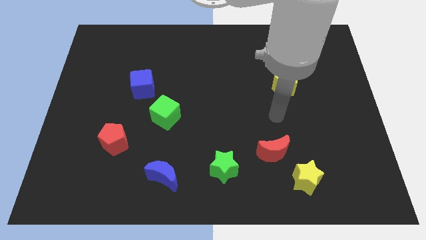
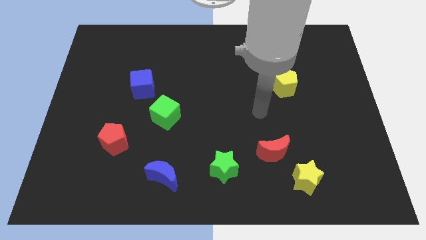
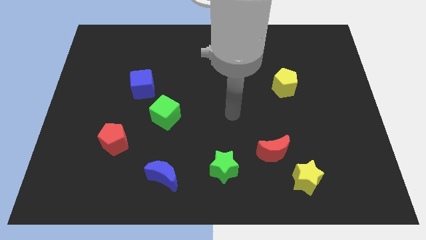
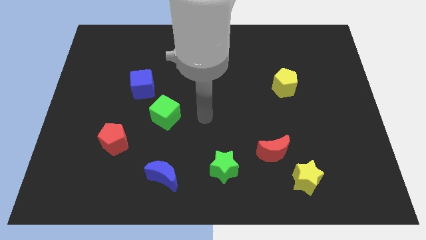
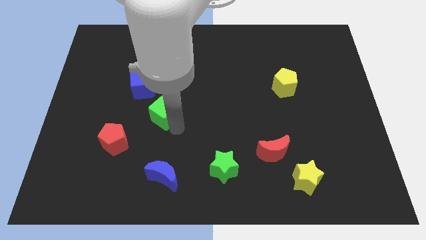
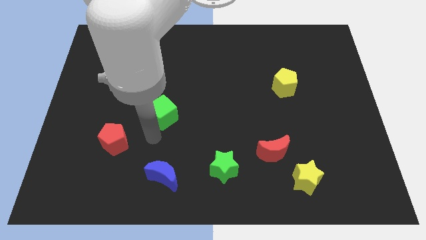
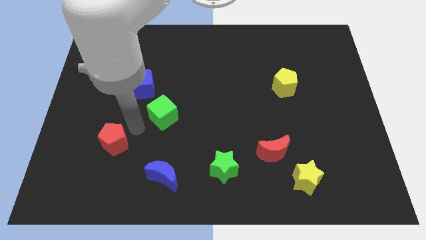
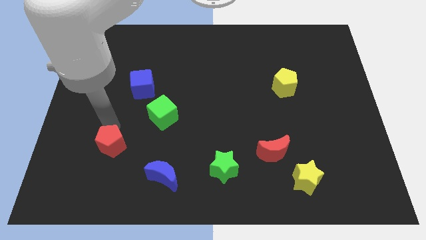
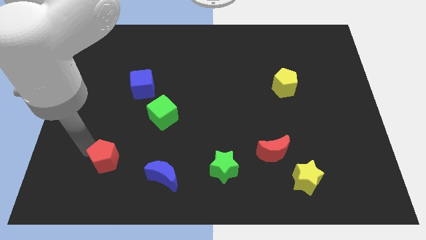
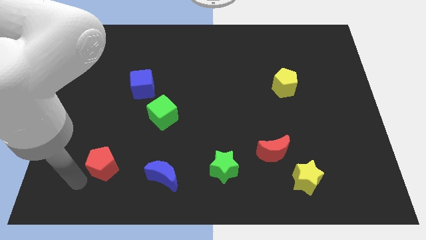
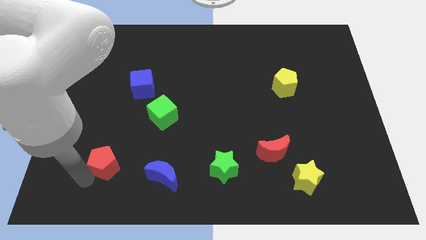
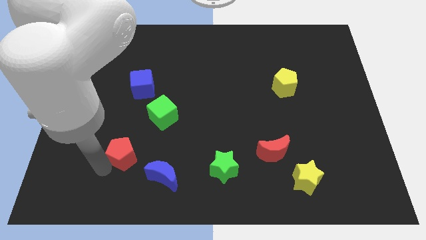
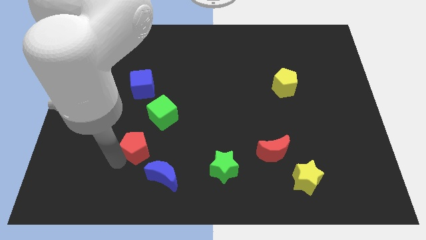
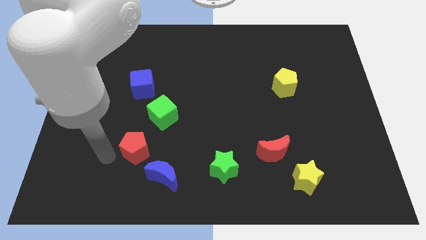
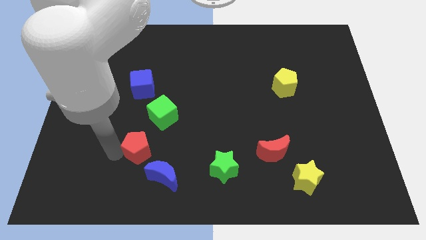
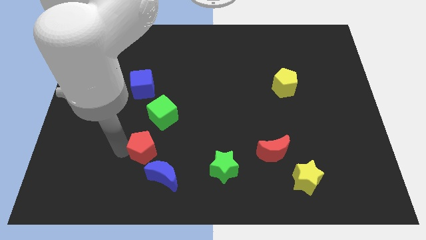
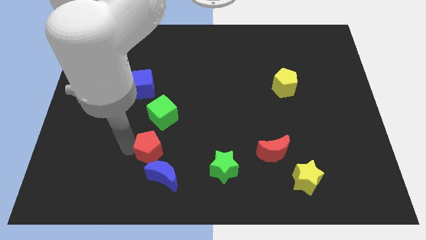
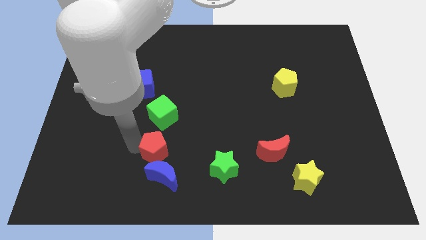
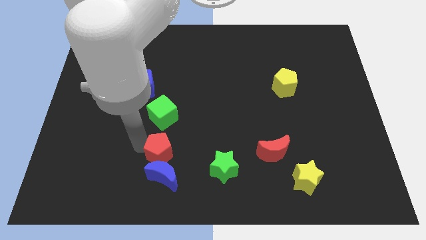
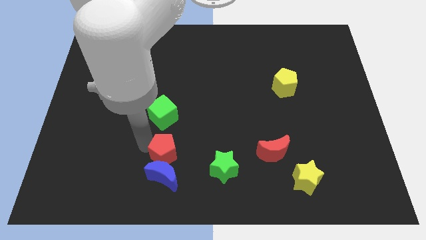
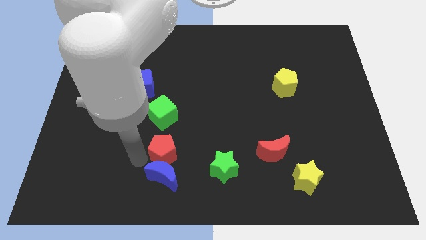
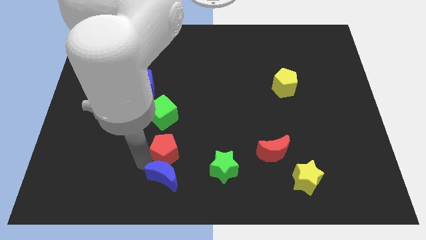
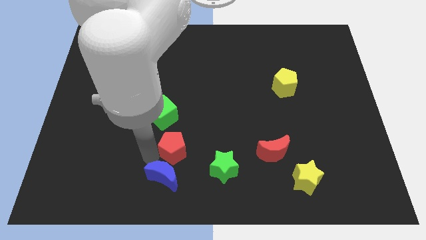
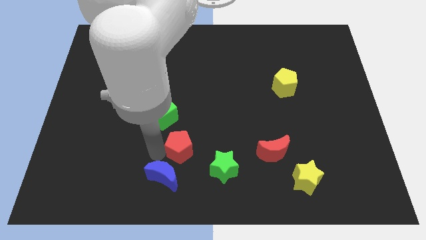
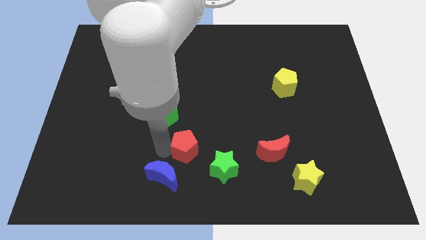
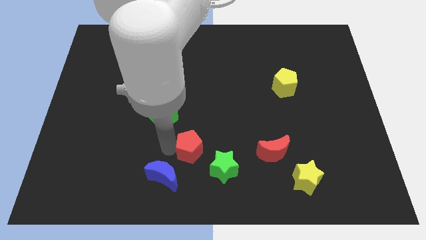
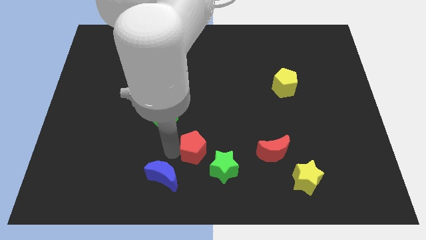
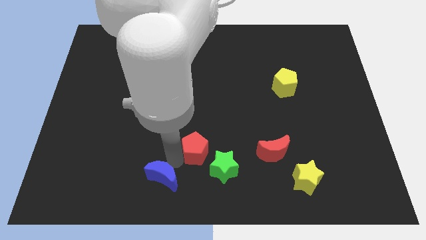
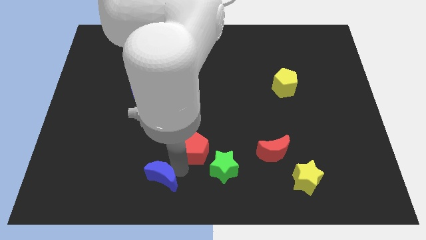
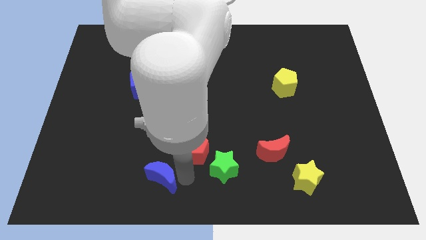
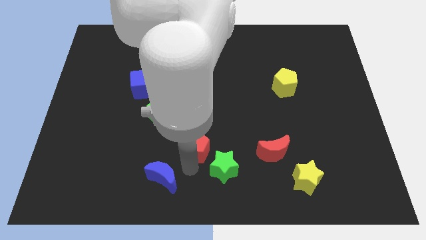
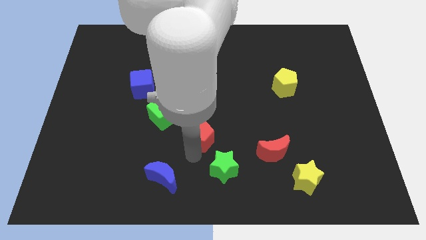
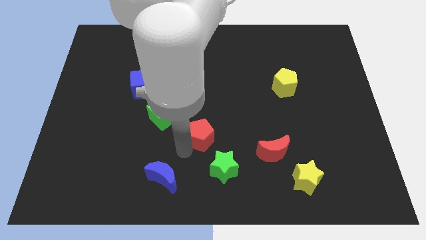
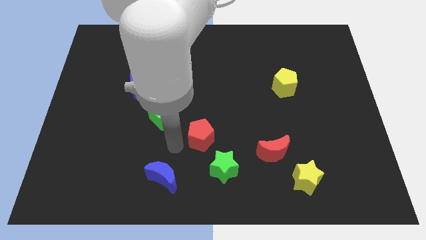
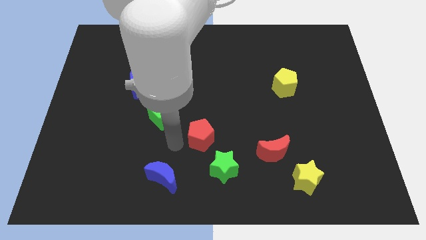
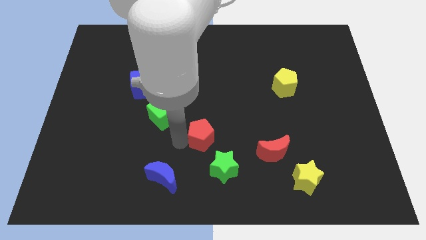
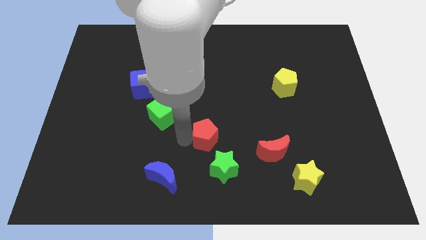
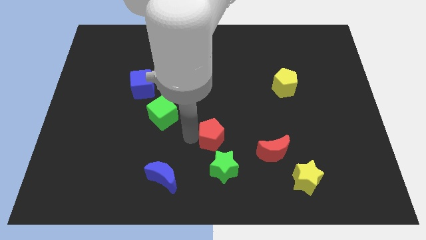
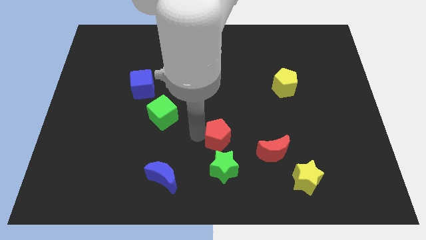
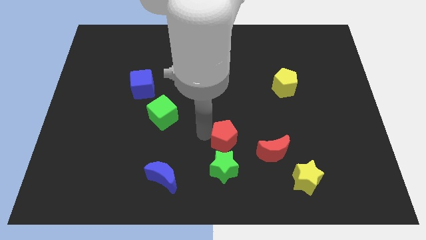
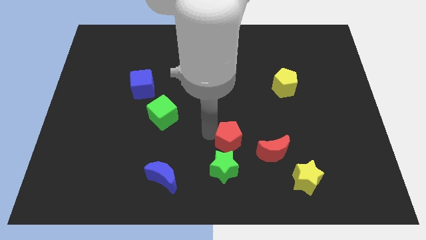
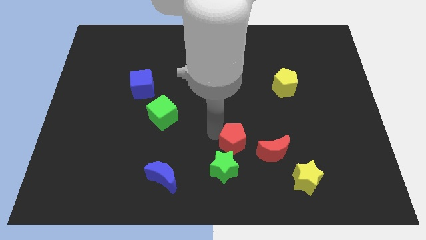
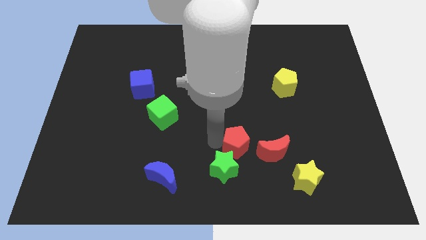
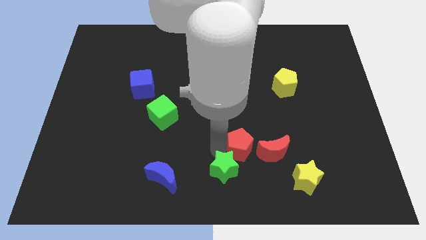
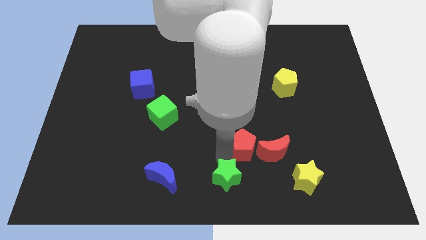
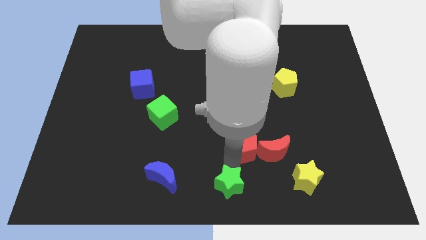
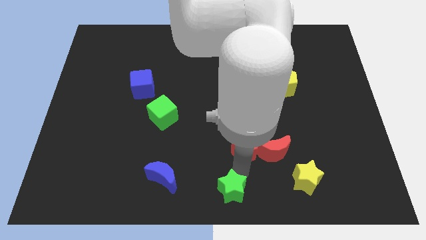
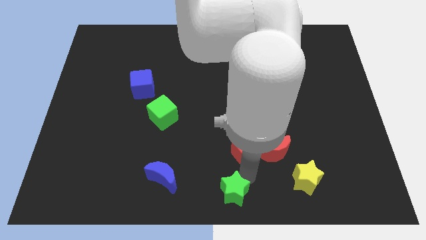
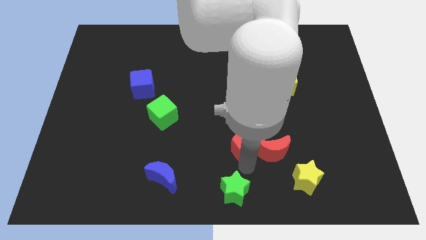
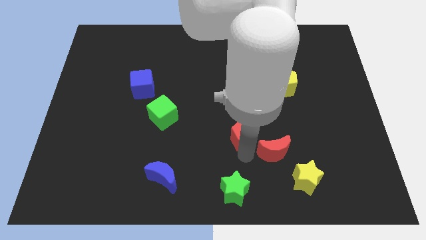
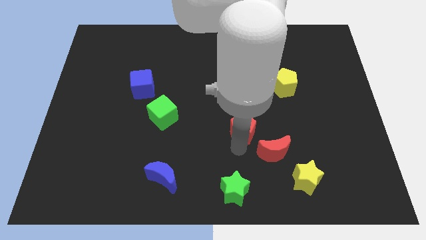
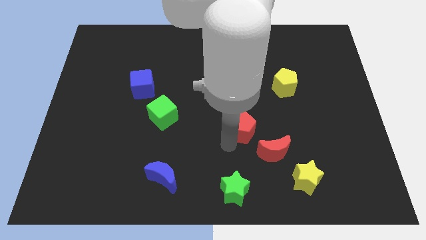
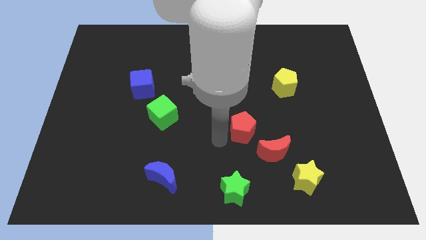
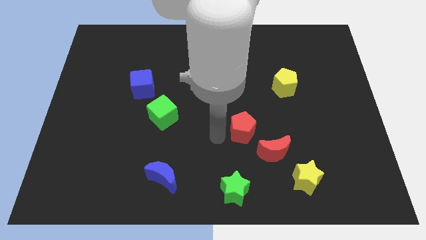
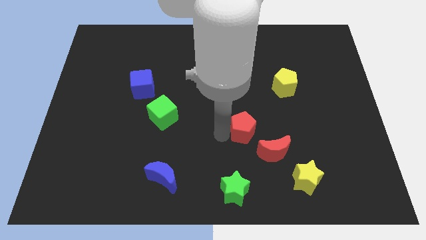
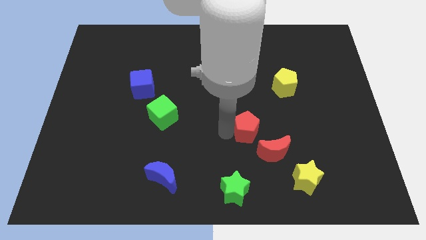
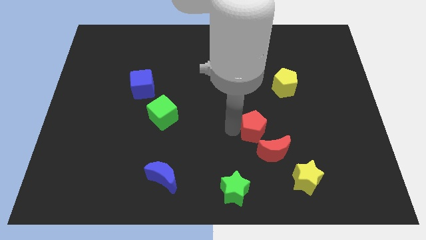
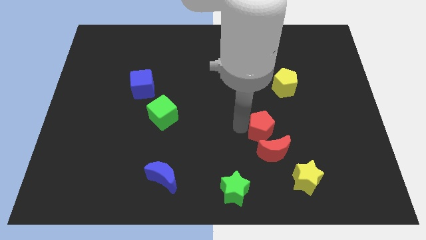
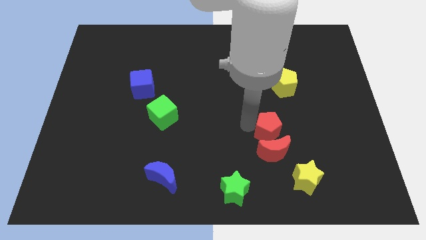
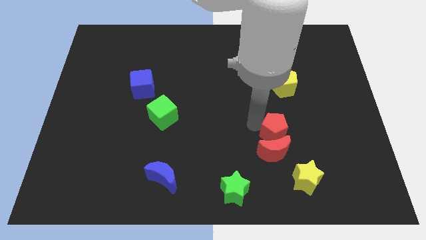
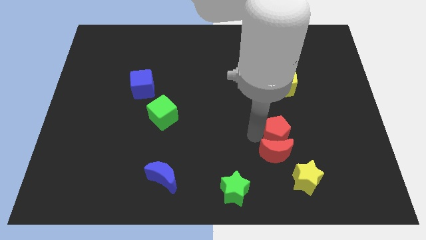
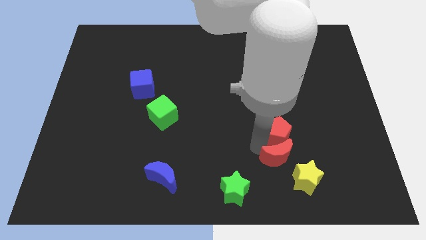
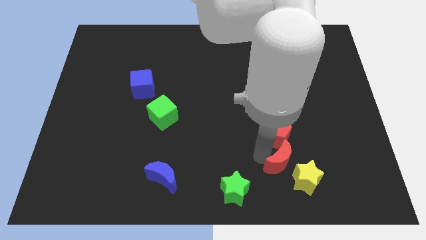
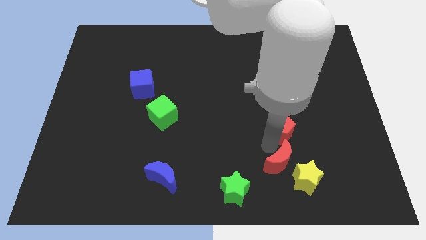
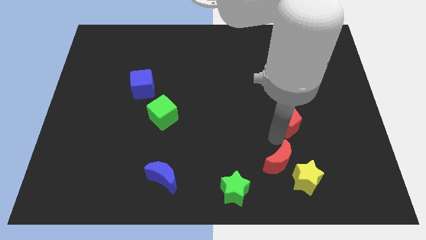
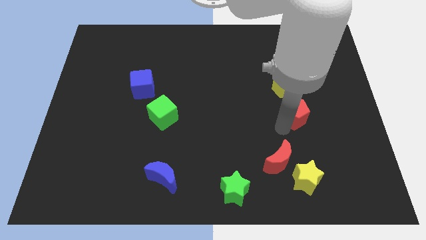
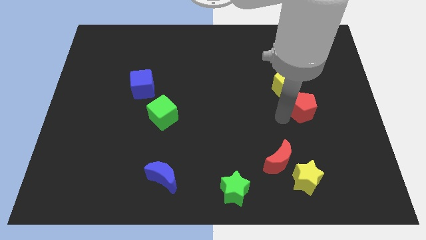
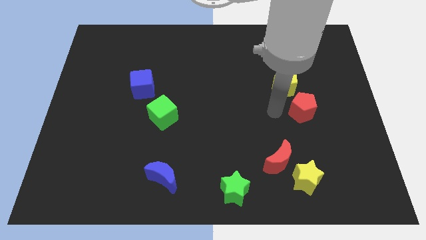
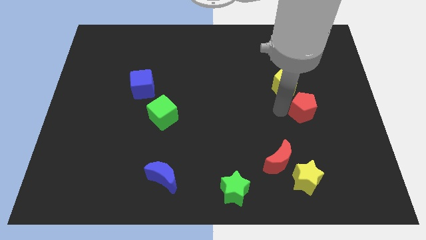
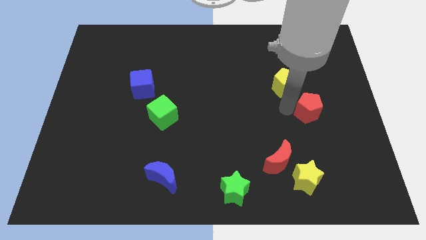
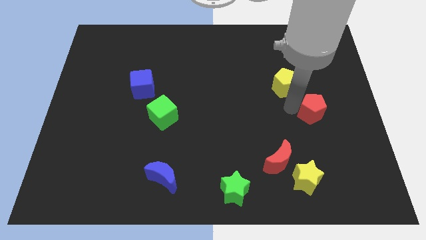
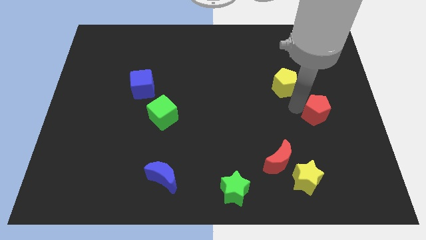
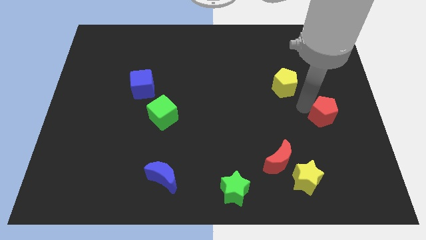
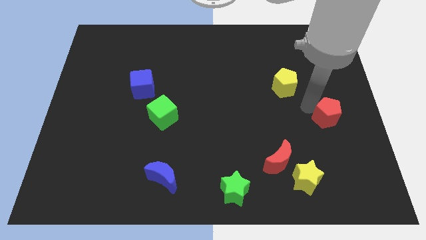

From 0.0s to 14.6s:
push the red pentagon to the center right
